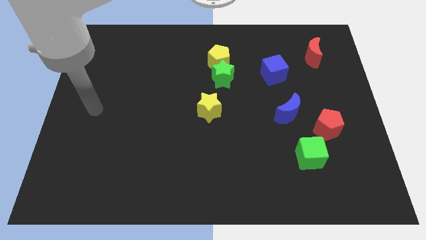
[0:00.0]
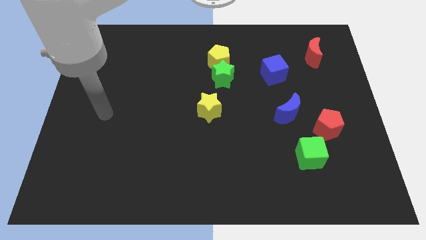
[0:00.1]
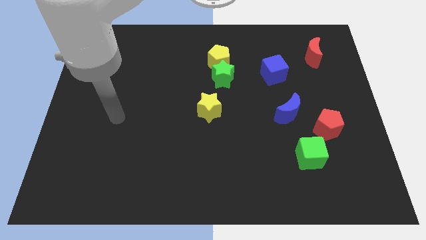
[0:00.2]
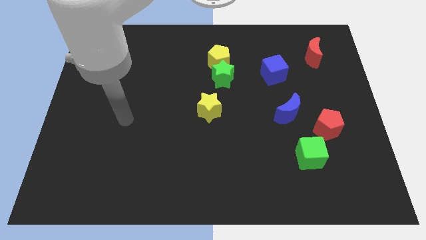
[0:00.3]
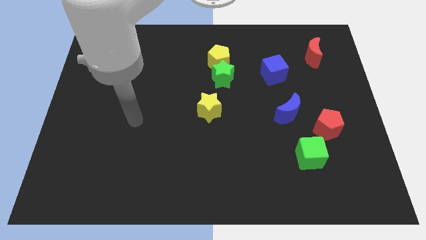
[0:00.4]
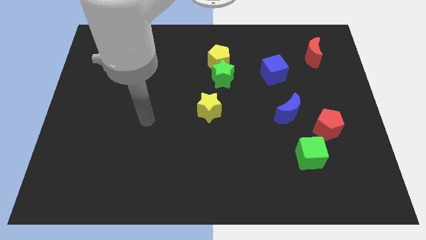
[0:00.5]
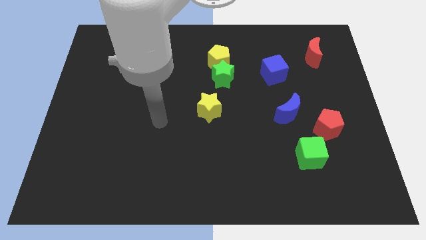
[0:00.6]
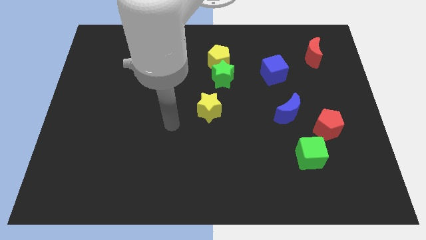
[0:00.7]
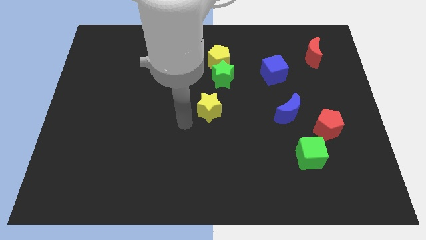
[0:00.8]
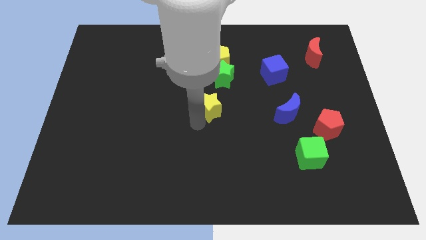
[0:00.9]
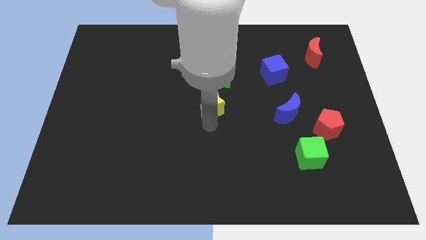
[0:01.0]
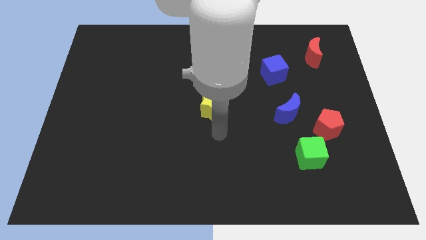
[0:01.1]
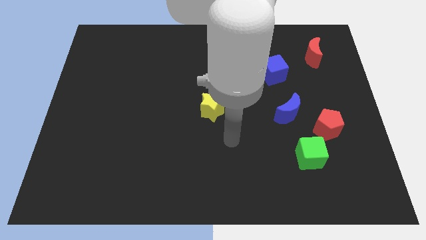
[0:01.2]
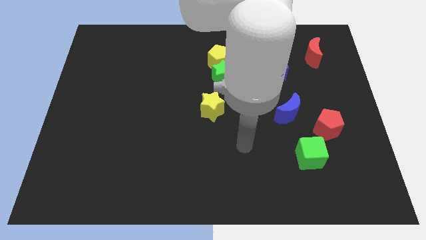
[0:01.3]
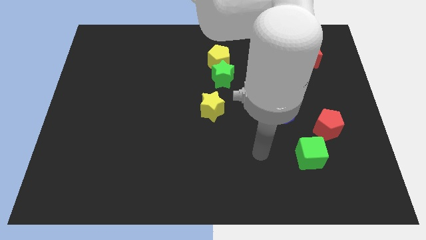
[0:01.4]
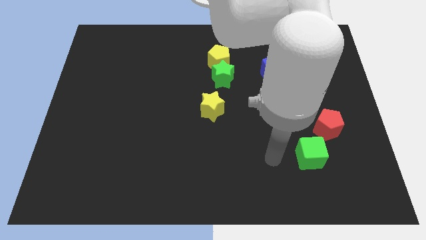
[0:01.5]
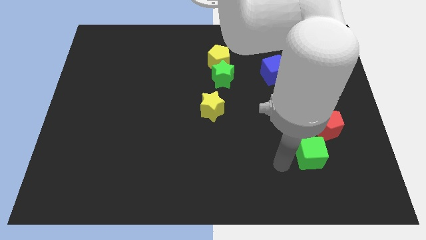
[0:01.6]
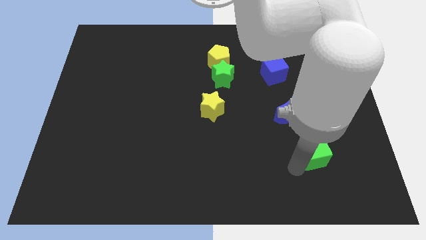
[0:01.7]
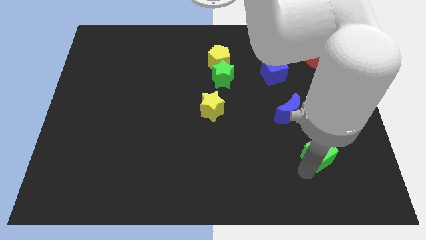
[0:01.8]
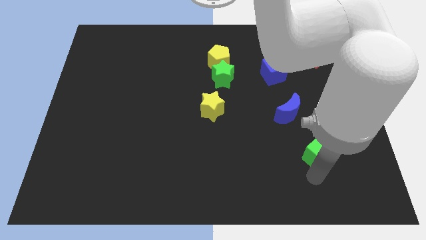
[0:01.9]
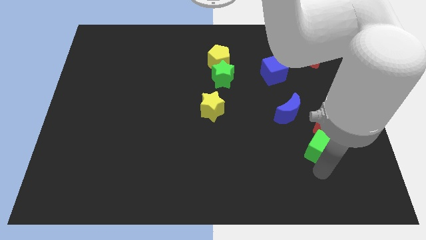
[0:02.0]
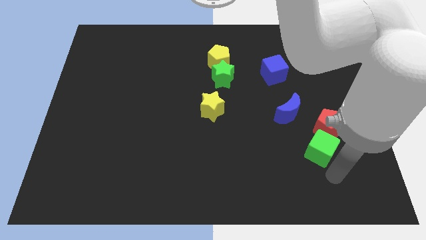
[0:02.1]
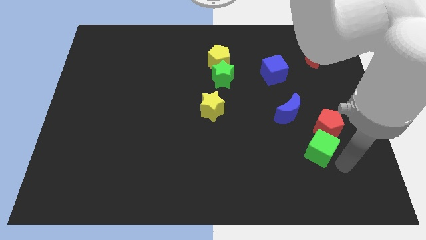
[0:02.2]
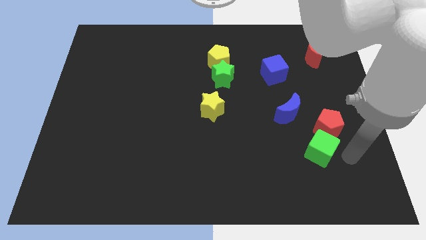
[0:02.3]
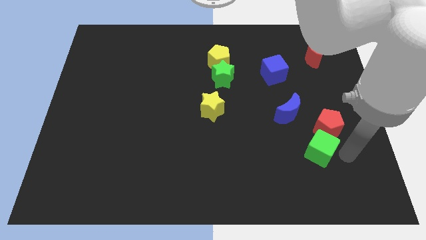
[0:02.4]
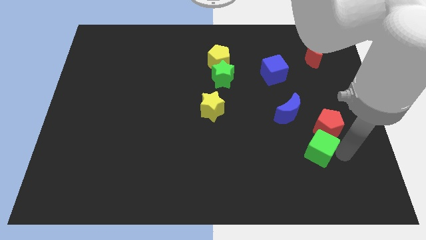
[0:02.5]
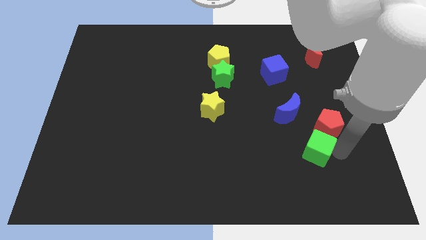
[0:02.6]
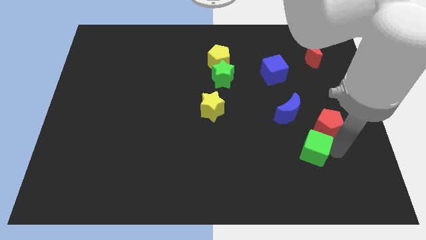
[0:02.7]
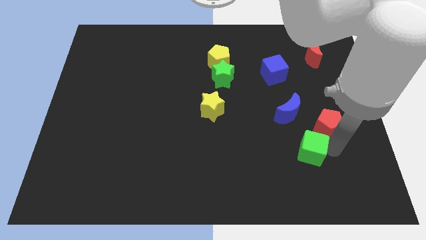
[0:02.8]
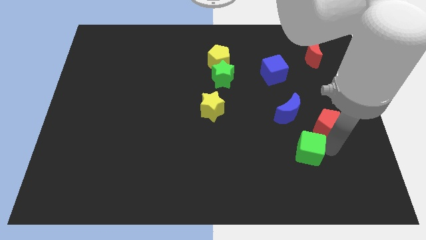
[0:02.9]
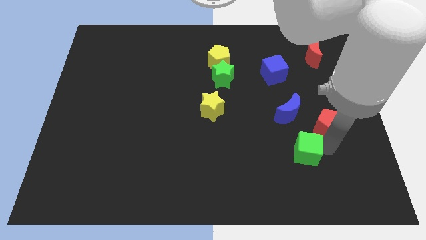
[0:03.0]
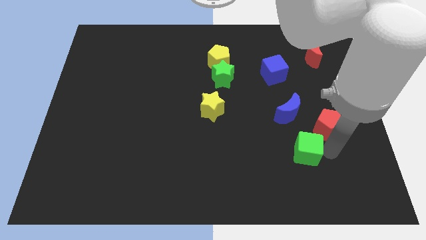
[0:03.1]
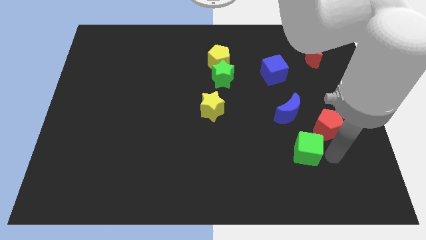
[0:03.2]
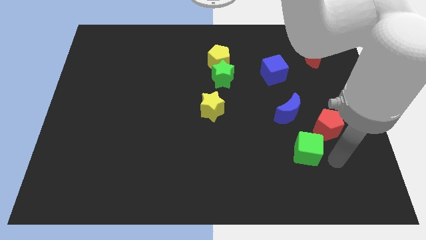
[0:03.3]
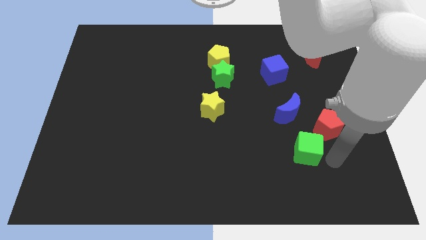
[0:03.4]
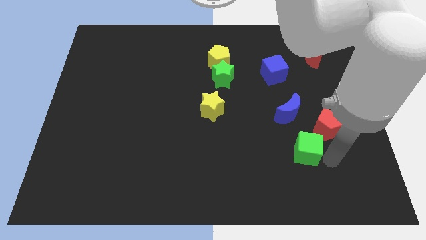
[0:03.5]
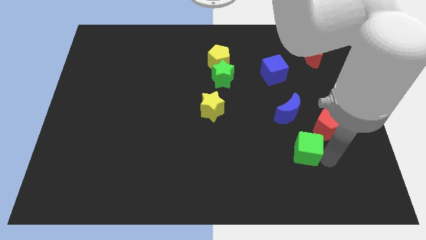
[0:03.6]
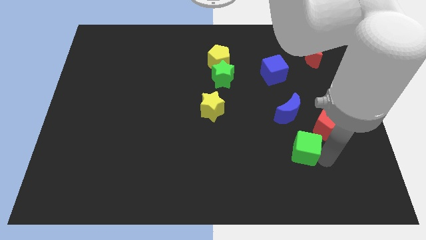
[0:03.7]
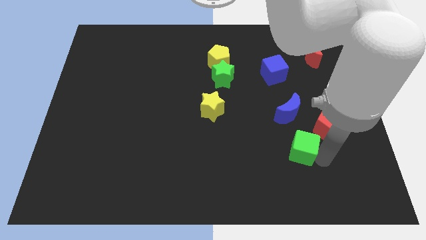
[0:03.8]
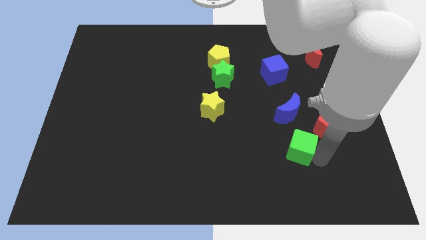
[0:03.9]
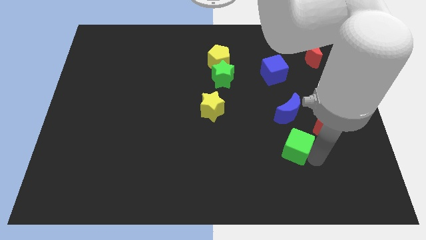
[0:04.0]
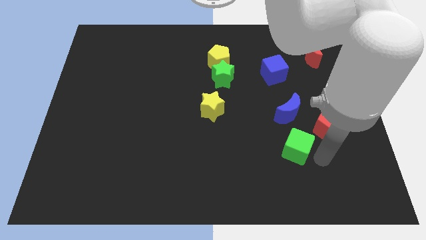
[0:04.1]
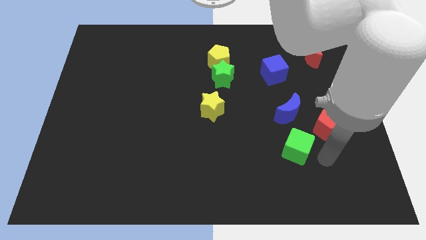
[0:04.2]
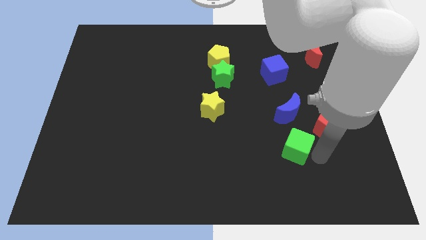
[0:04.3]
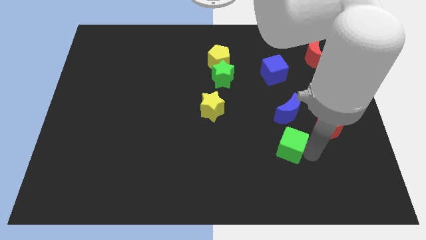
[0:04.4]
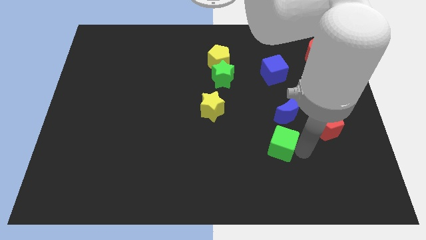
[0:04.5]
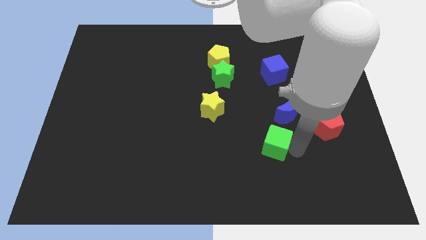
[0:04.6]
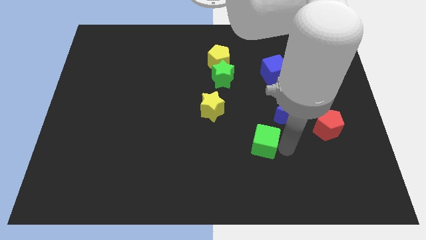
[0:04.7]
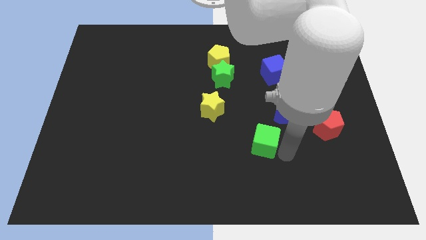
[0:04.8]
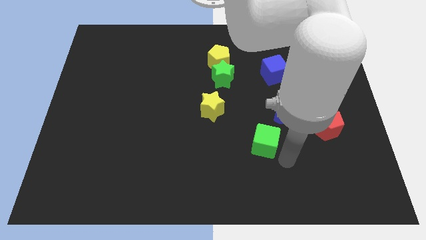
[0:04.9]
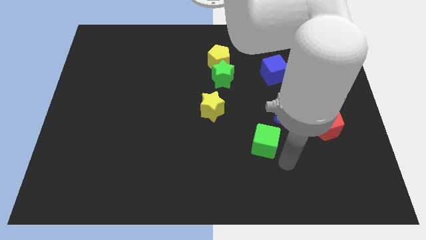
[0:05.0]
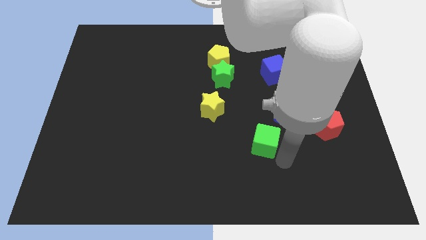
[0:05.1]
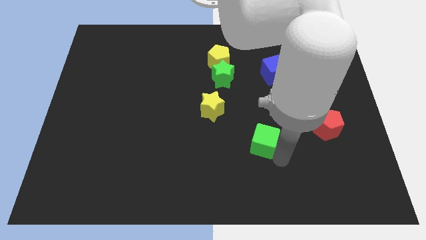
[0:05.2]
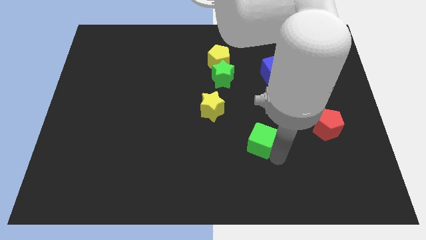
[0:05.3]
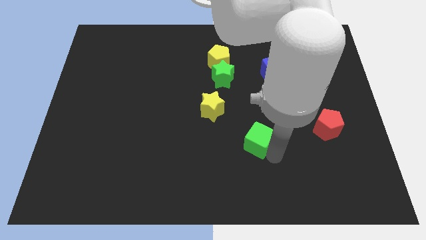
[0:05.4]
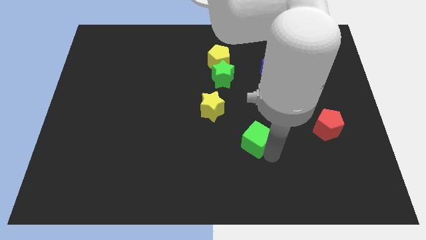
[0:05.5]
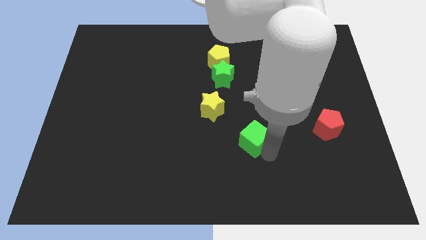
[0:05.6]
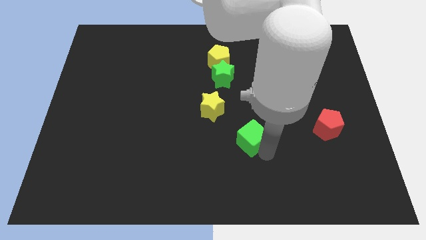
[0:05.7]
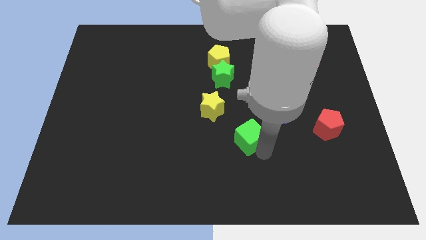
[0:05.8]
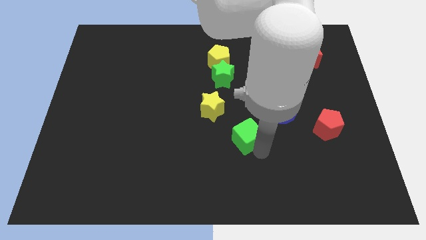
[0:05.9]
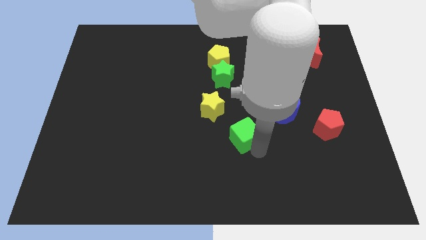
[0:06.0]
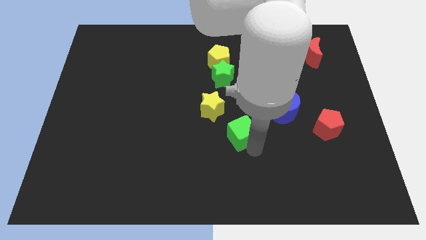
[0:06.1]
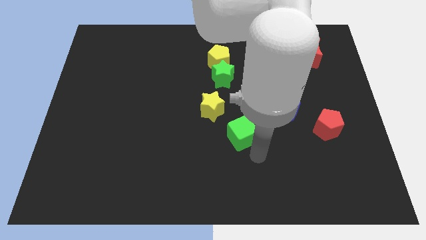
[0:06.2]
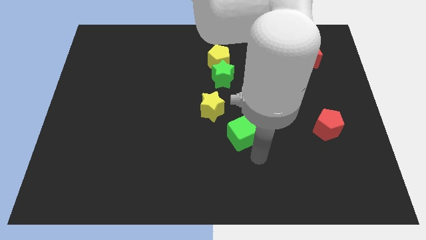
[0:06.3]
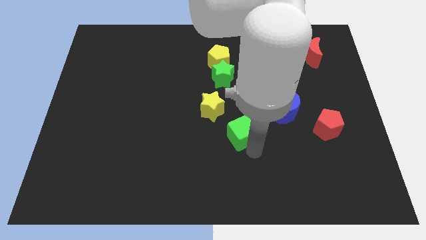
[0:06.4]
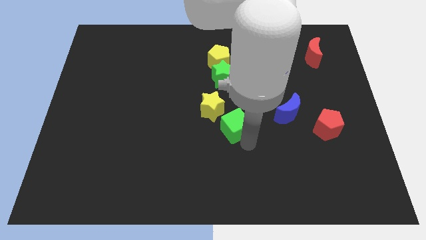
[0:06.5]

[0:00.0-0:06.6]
slide the green cube to the bottom side of the green star

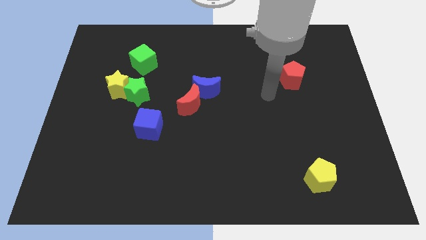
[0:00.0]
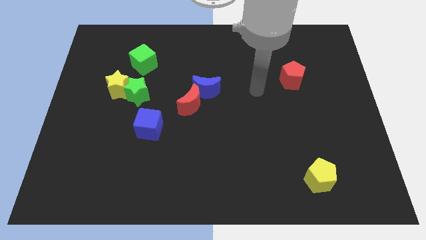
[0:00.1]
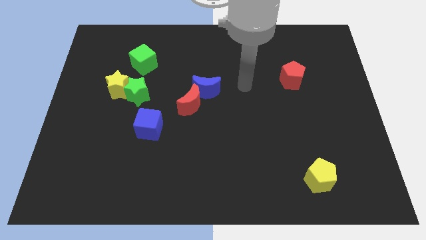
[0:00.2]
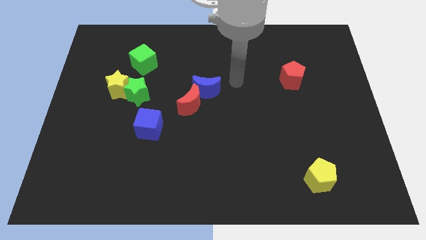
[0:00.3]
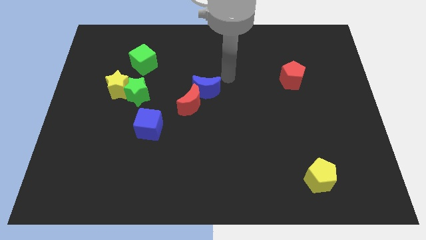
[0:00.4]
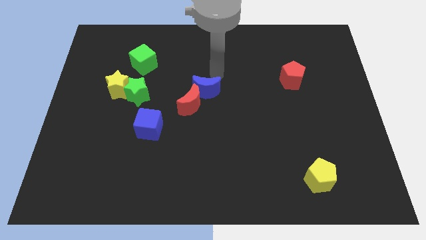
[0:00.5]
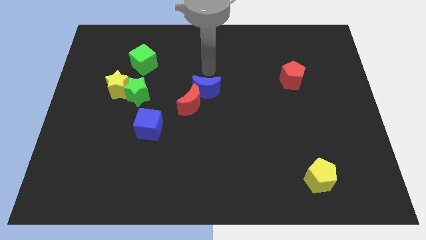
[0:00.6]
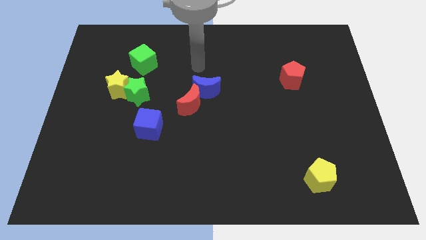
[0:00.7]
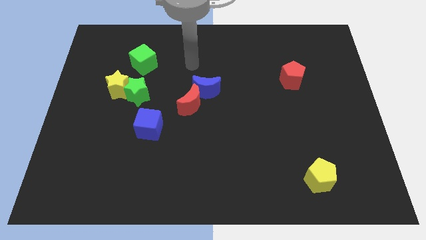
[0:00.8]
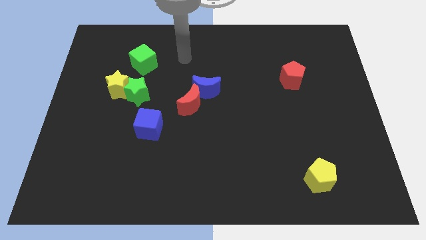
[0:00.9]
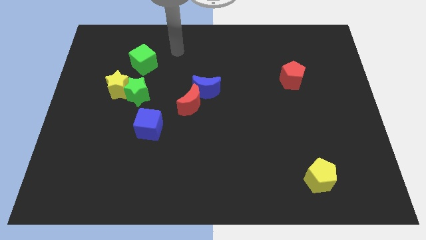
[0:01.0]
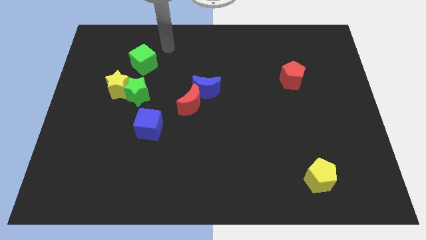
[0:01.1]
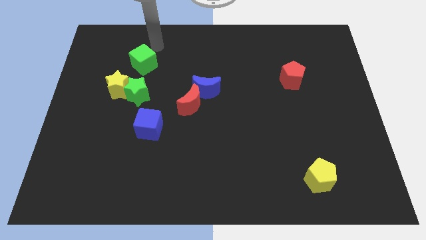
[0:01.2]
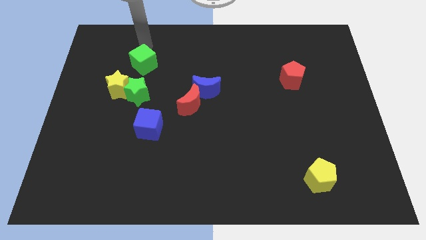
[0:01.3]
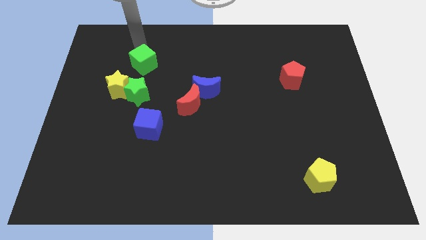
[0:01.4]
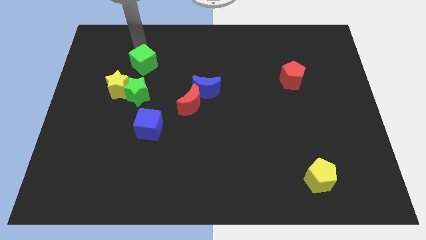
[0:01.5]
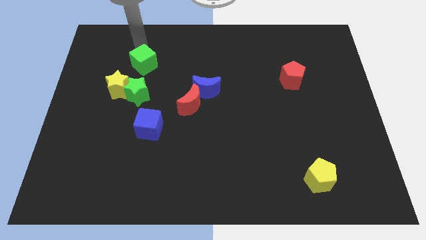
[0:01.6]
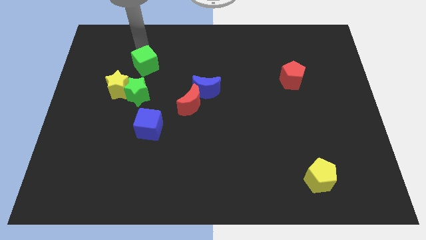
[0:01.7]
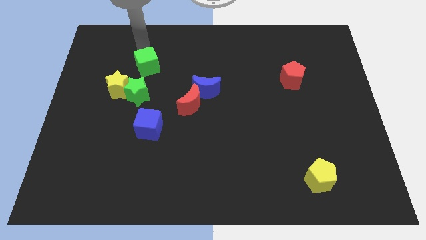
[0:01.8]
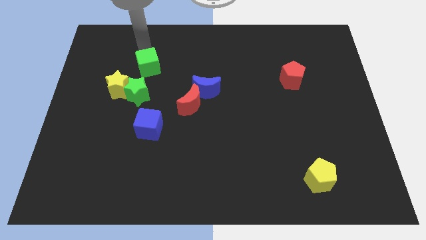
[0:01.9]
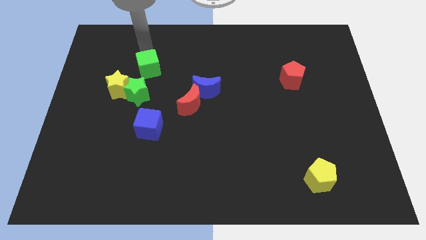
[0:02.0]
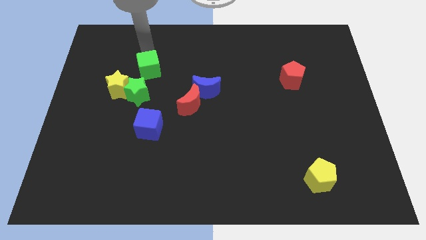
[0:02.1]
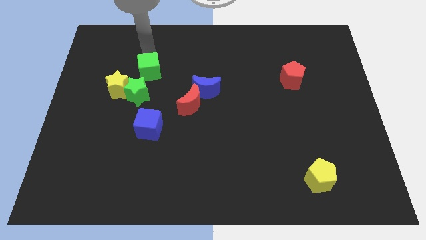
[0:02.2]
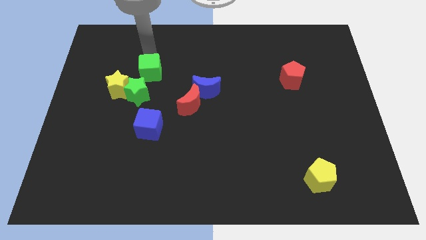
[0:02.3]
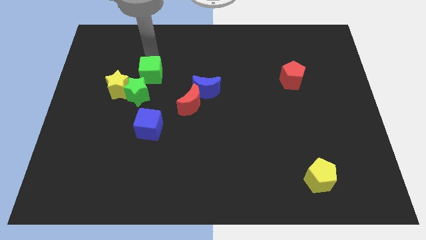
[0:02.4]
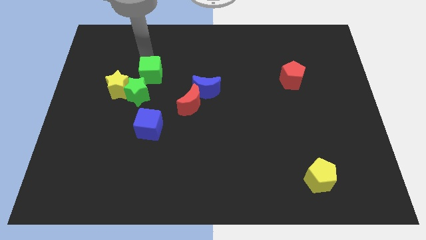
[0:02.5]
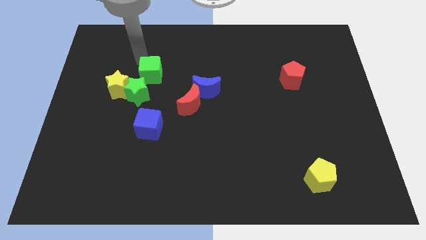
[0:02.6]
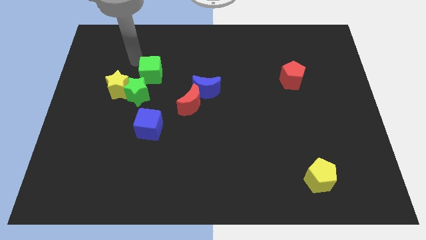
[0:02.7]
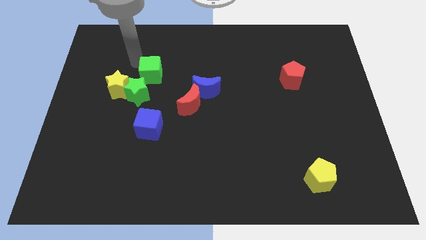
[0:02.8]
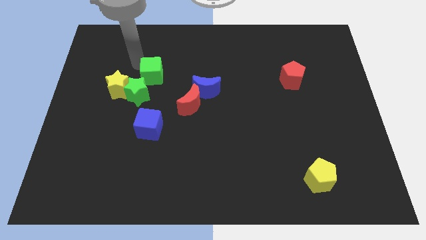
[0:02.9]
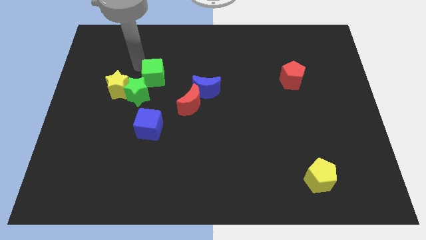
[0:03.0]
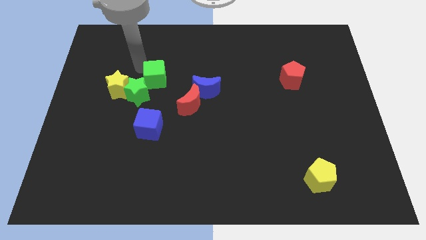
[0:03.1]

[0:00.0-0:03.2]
push the green cube diagonally up and to the left of the red moon
